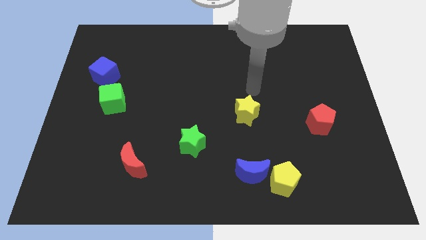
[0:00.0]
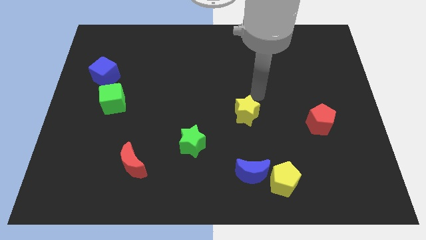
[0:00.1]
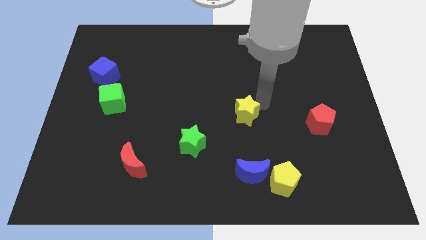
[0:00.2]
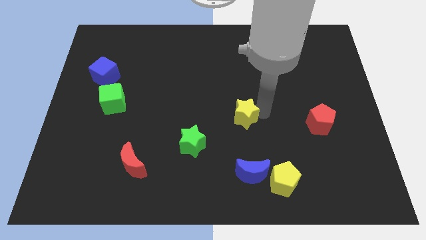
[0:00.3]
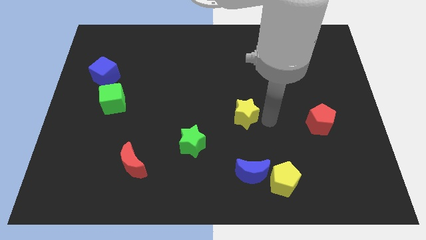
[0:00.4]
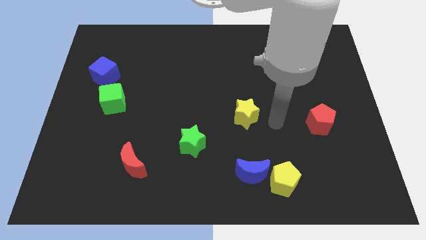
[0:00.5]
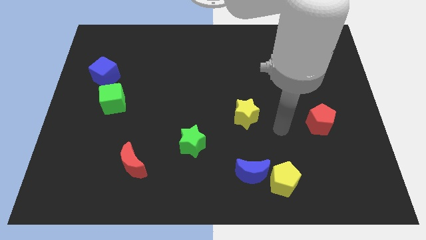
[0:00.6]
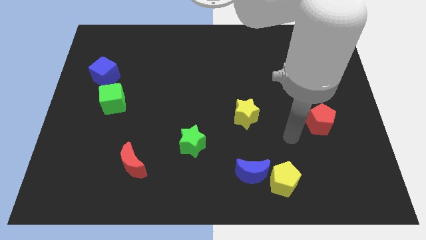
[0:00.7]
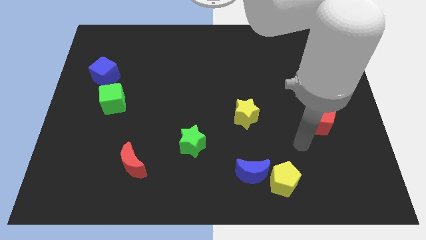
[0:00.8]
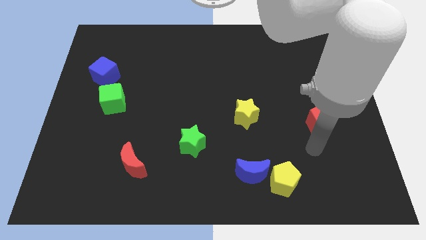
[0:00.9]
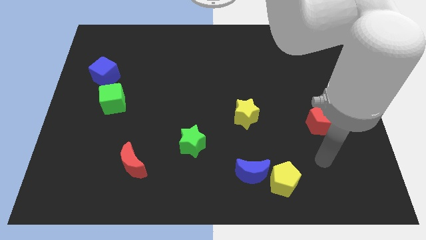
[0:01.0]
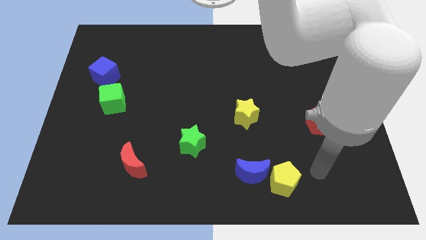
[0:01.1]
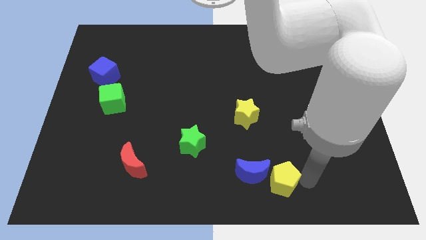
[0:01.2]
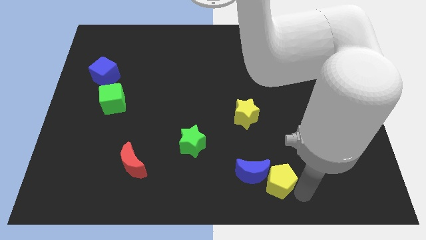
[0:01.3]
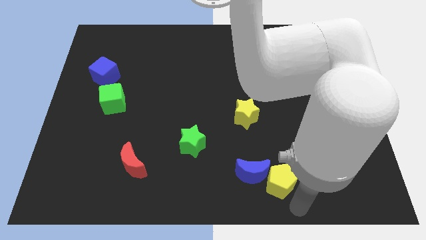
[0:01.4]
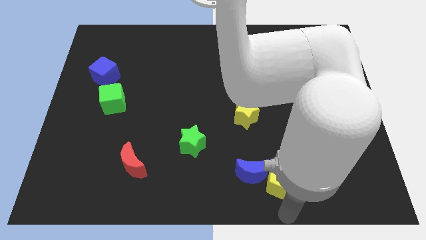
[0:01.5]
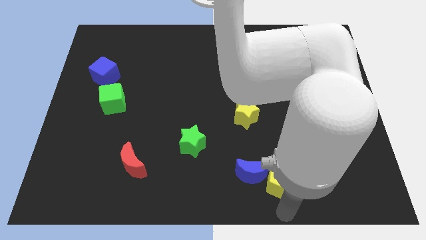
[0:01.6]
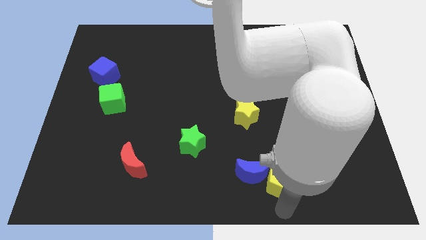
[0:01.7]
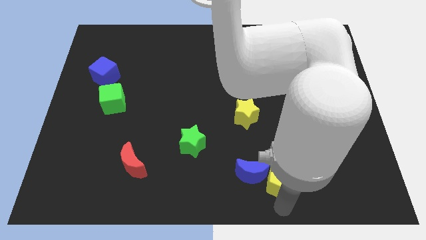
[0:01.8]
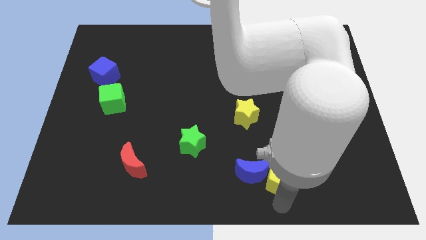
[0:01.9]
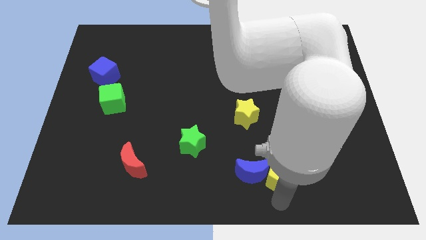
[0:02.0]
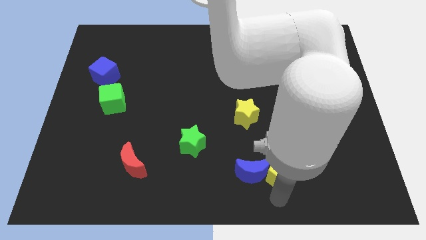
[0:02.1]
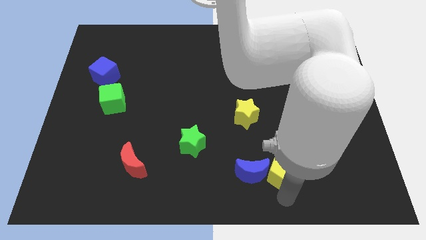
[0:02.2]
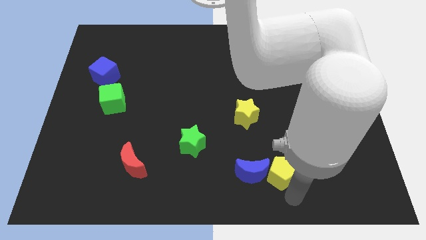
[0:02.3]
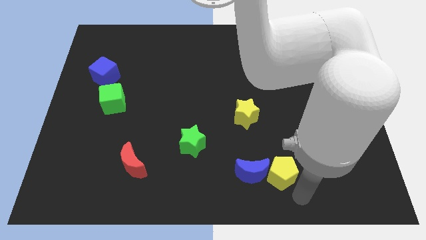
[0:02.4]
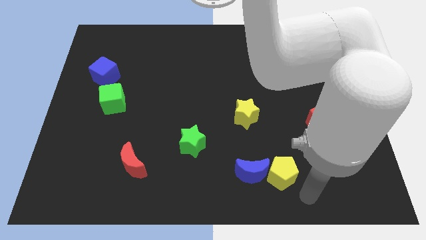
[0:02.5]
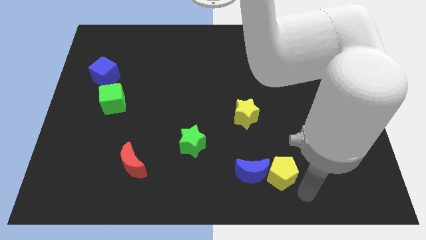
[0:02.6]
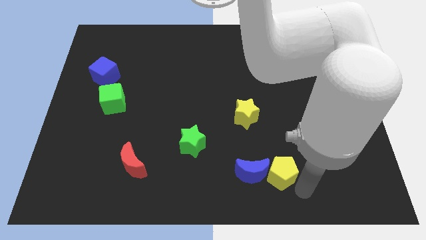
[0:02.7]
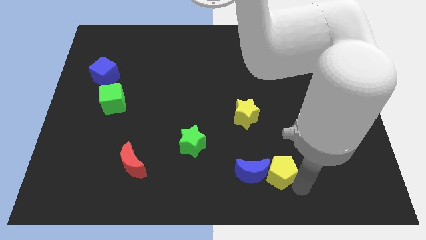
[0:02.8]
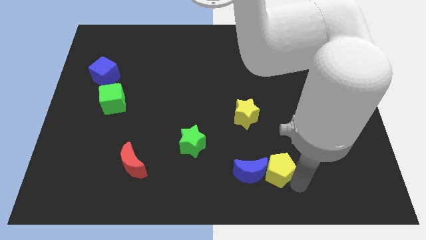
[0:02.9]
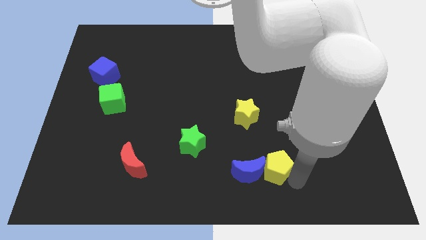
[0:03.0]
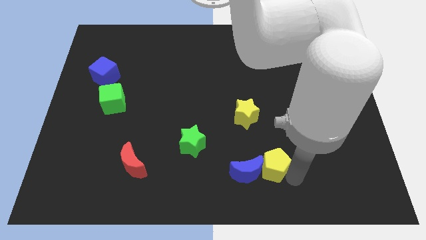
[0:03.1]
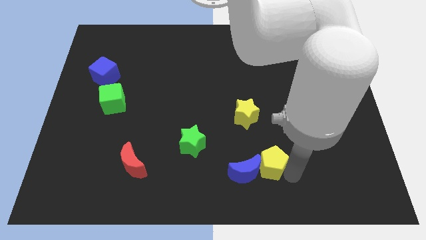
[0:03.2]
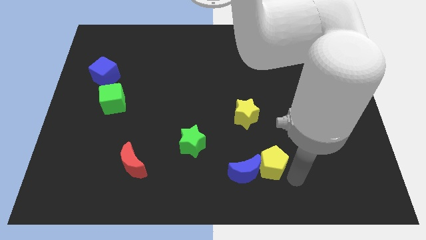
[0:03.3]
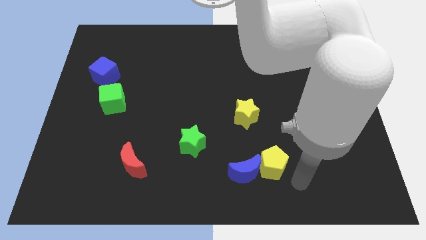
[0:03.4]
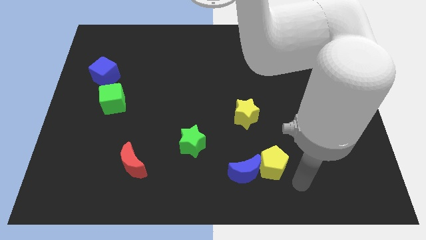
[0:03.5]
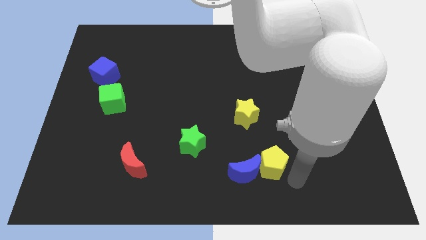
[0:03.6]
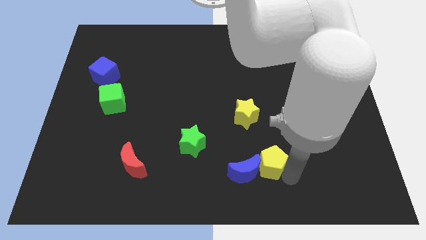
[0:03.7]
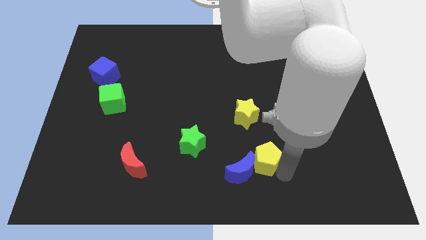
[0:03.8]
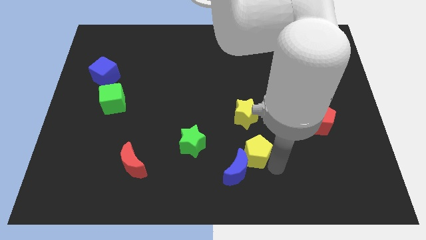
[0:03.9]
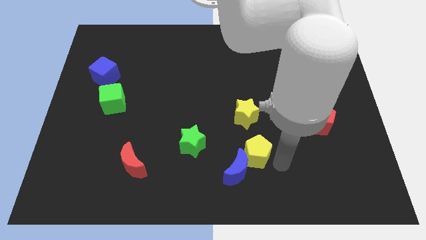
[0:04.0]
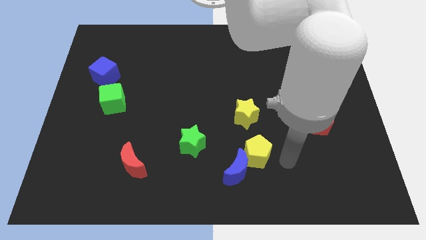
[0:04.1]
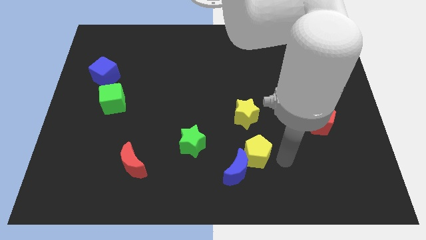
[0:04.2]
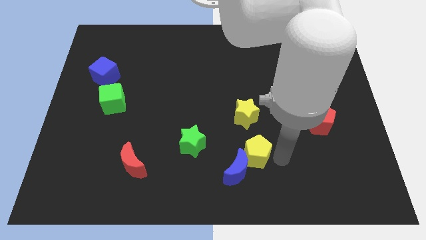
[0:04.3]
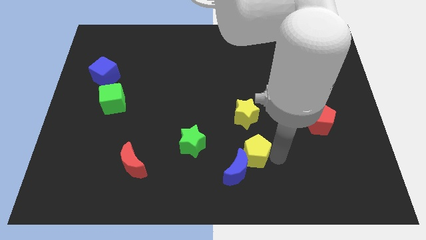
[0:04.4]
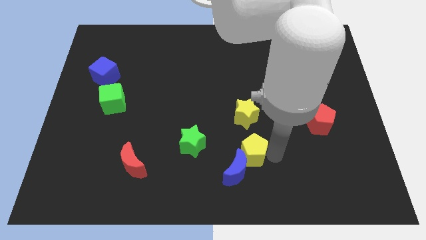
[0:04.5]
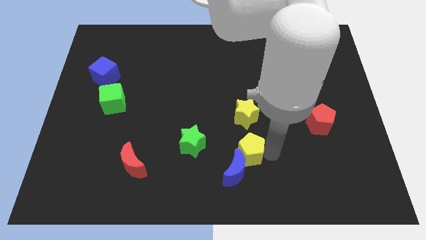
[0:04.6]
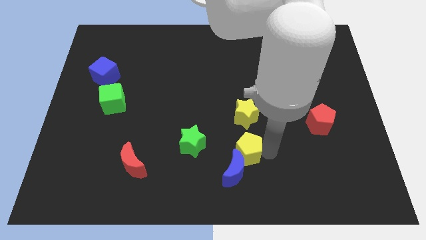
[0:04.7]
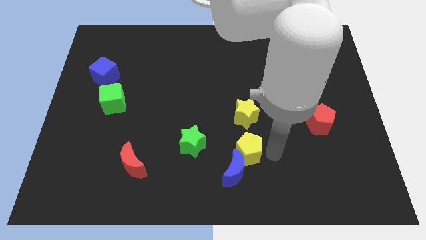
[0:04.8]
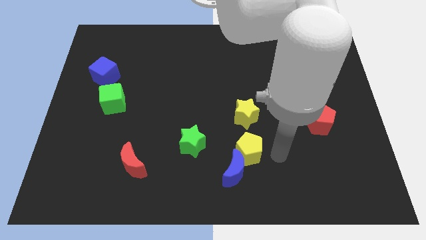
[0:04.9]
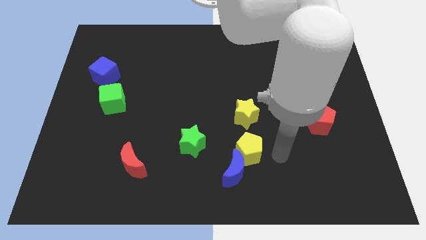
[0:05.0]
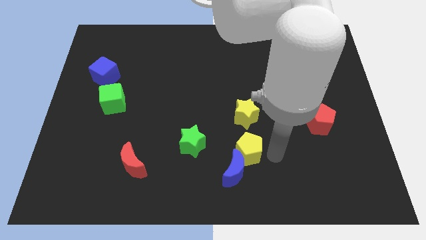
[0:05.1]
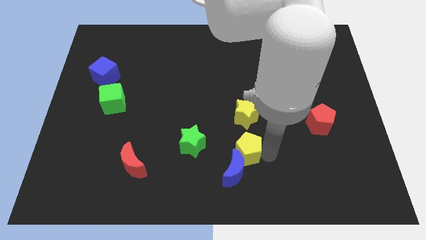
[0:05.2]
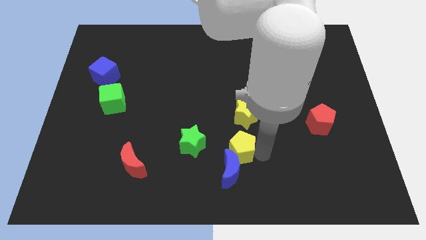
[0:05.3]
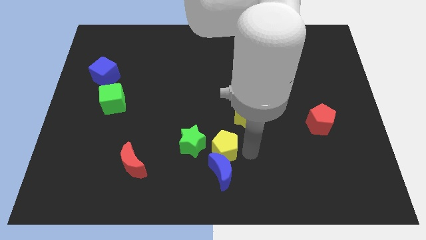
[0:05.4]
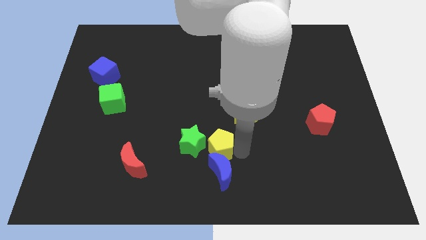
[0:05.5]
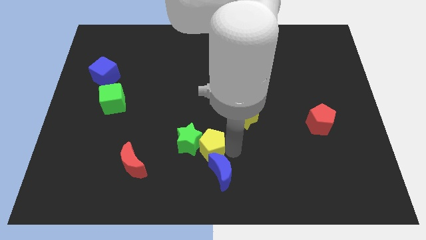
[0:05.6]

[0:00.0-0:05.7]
put the yellow pentagon to the green star

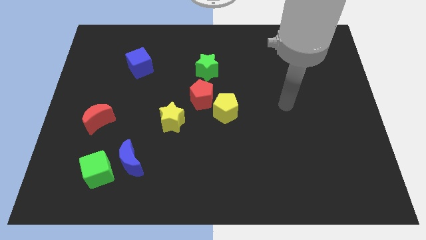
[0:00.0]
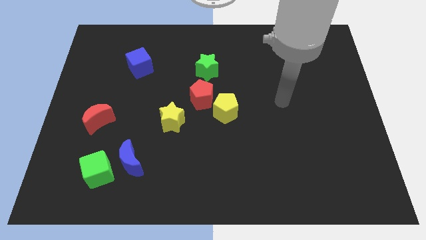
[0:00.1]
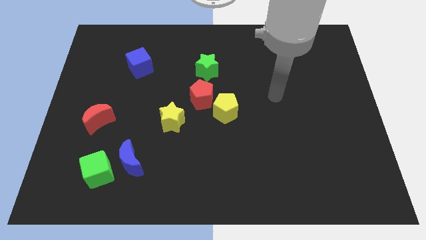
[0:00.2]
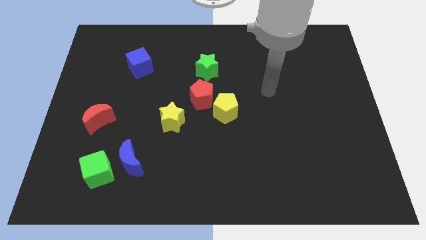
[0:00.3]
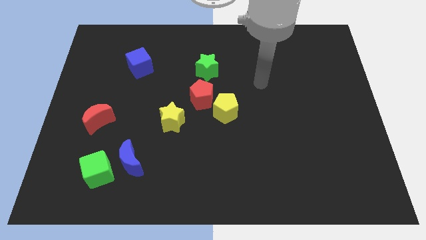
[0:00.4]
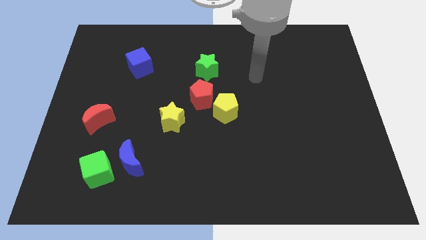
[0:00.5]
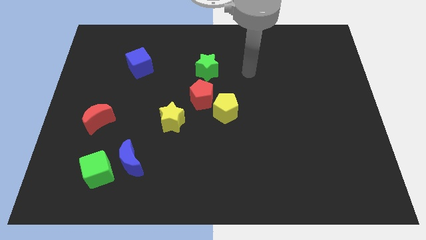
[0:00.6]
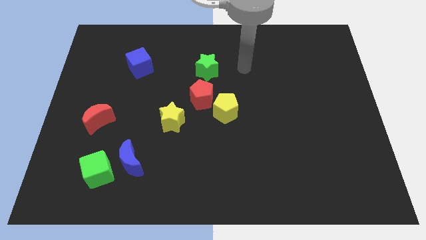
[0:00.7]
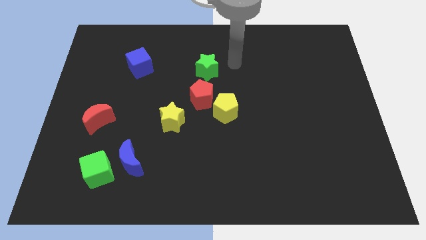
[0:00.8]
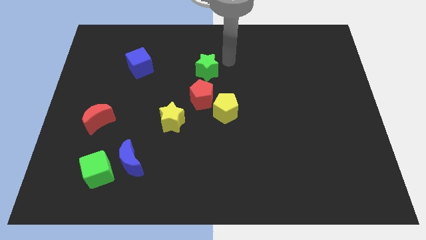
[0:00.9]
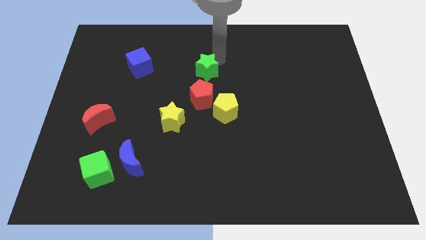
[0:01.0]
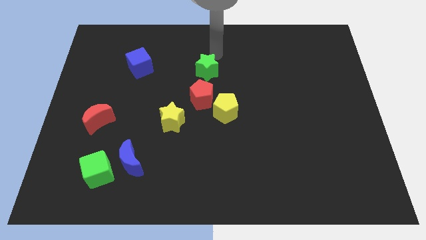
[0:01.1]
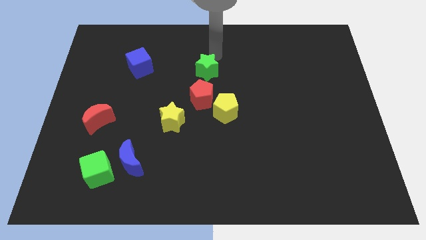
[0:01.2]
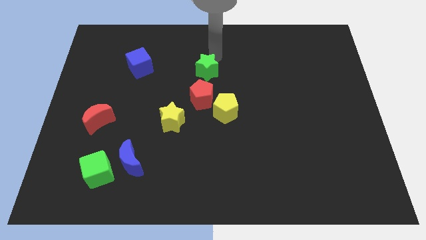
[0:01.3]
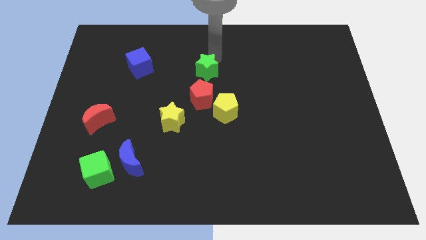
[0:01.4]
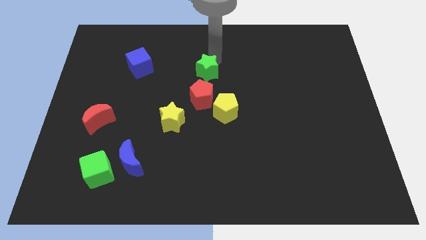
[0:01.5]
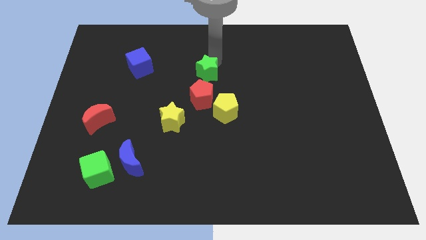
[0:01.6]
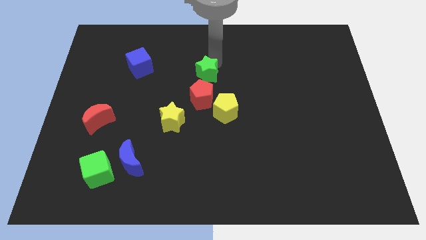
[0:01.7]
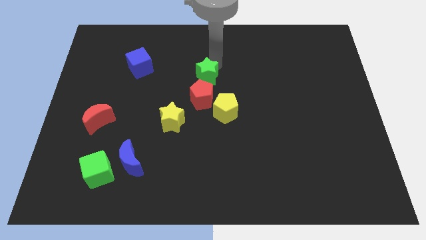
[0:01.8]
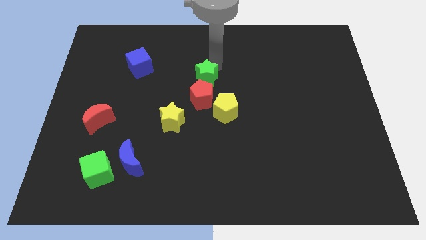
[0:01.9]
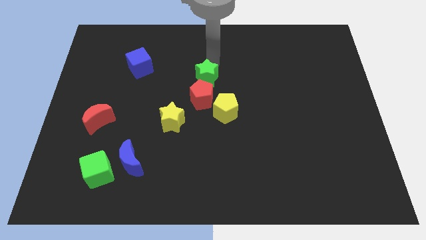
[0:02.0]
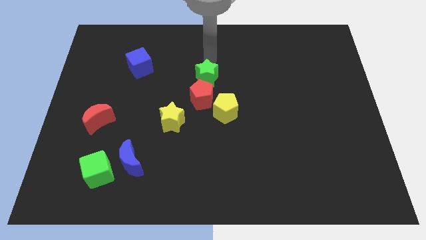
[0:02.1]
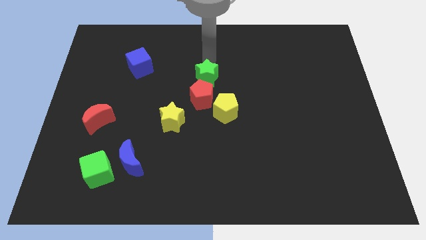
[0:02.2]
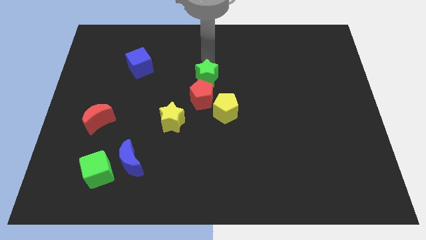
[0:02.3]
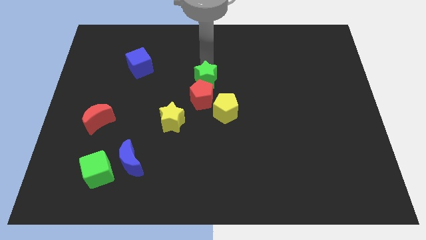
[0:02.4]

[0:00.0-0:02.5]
move the green star close to the red pentagon
